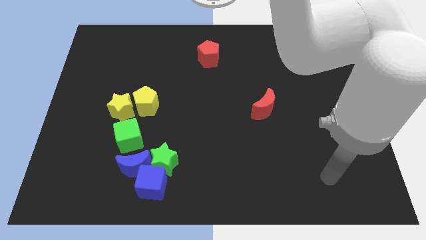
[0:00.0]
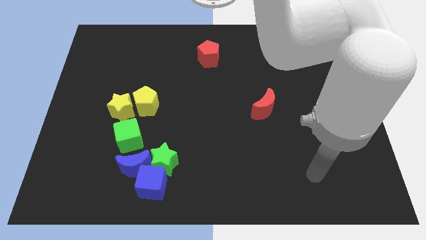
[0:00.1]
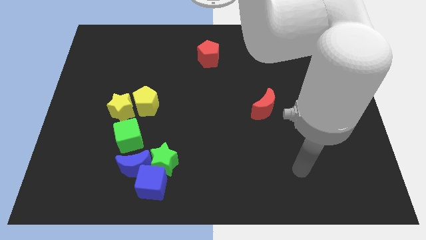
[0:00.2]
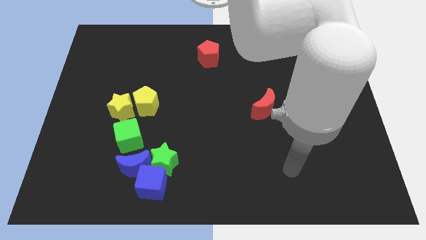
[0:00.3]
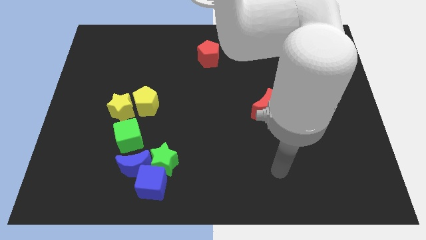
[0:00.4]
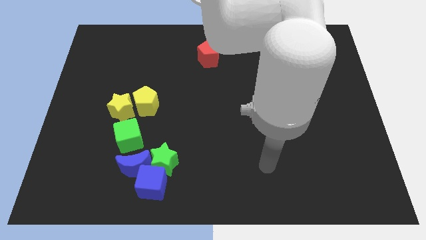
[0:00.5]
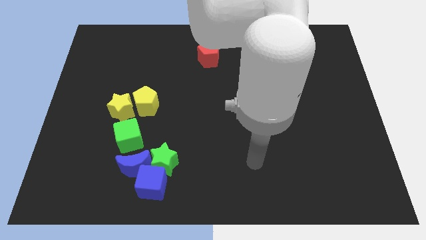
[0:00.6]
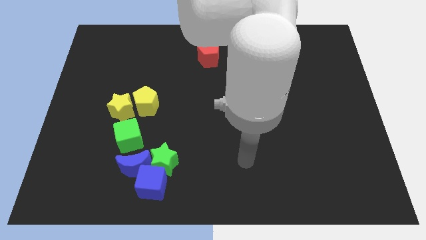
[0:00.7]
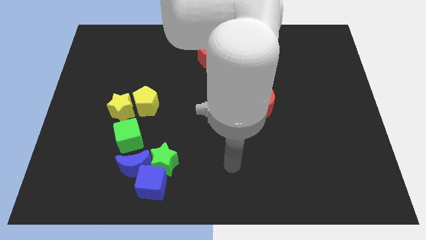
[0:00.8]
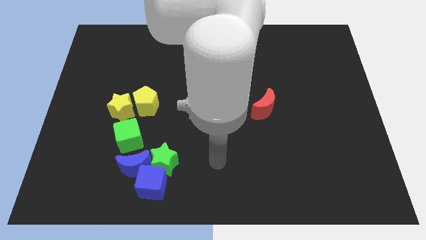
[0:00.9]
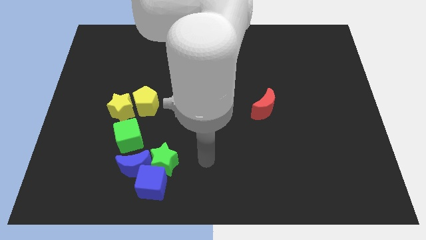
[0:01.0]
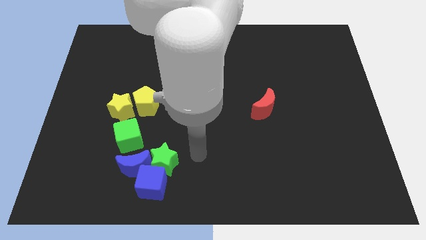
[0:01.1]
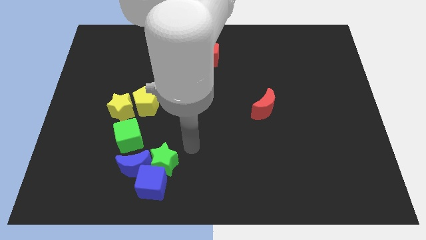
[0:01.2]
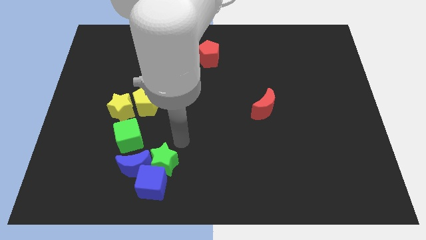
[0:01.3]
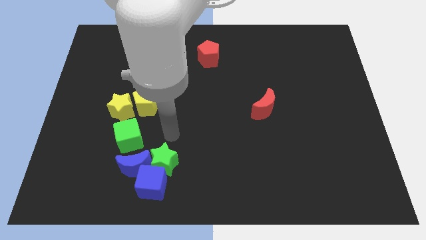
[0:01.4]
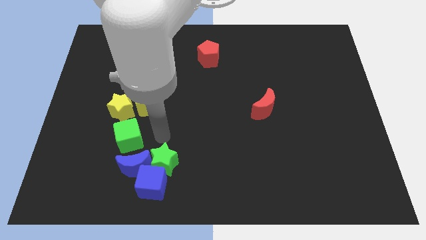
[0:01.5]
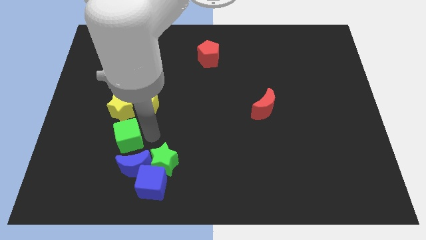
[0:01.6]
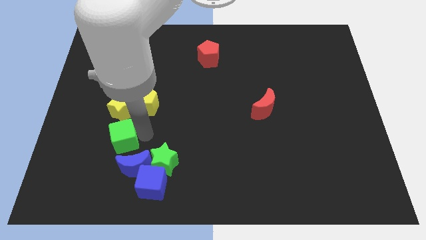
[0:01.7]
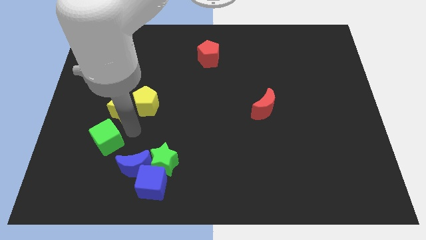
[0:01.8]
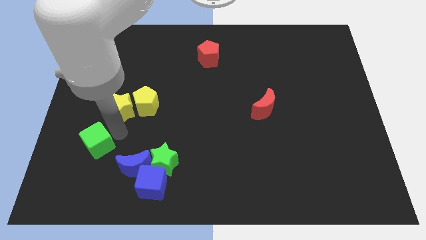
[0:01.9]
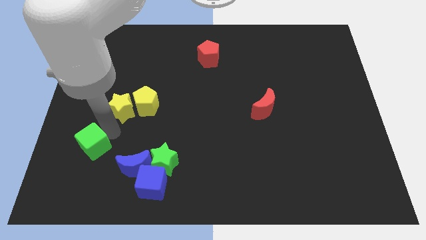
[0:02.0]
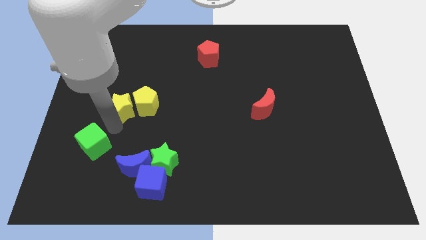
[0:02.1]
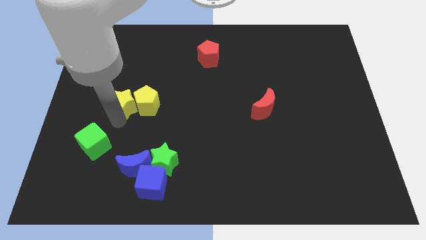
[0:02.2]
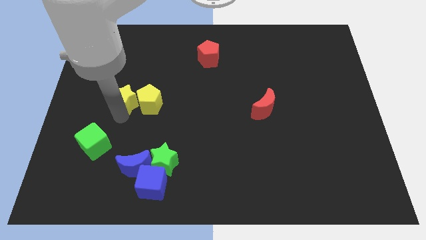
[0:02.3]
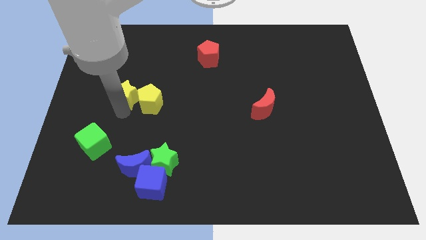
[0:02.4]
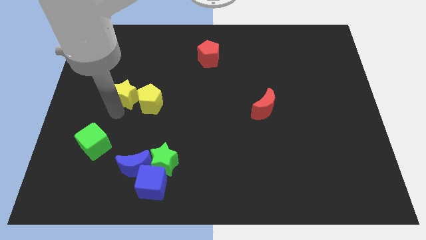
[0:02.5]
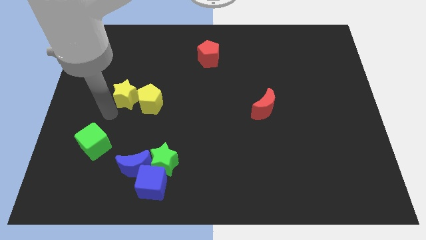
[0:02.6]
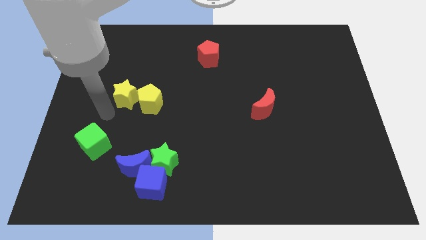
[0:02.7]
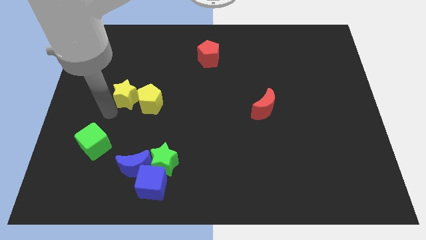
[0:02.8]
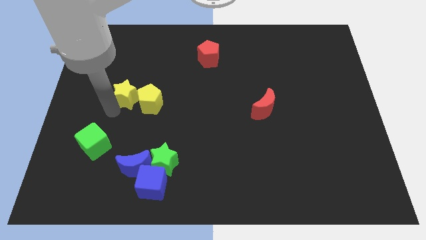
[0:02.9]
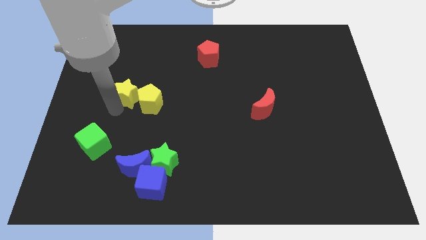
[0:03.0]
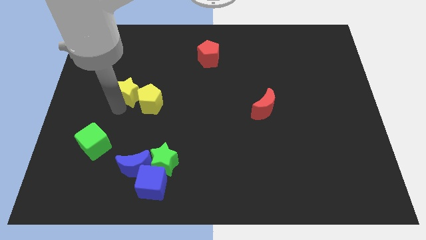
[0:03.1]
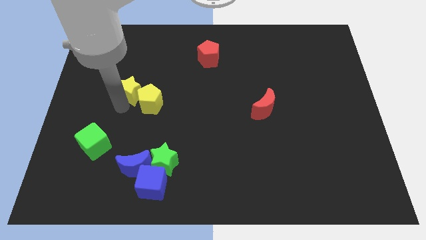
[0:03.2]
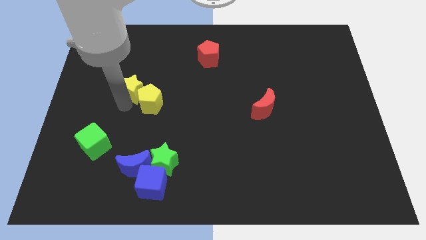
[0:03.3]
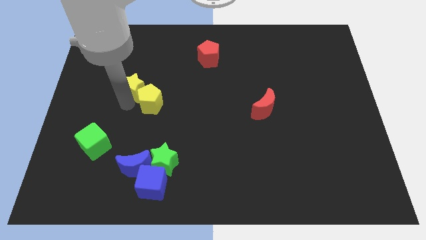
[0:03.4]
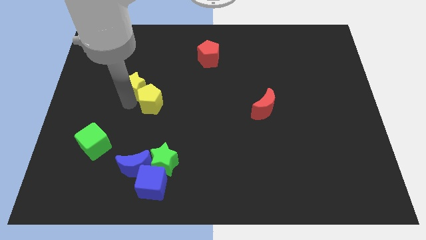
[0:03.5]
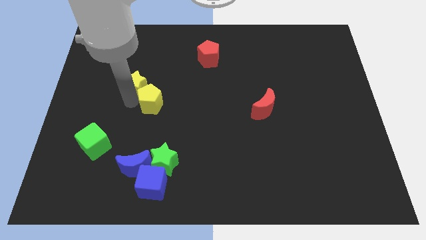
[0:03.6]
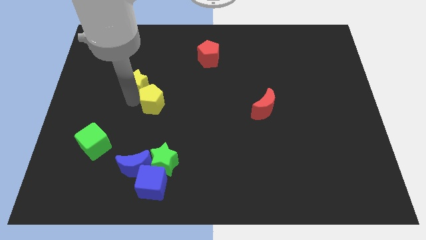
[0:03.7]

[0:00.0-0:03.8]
push the yellow star upwards and to the right diagonally slightly

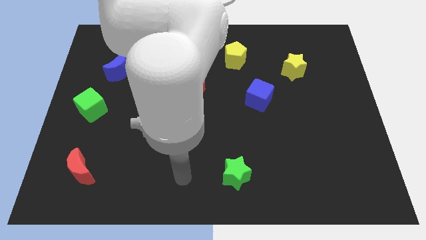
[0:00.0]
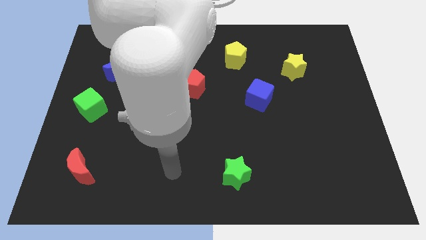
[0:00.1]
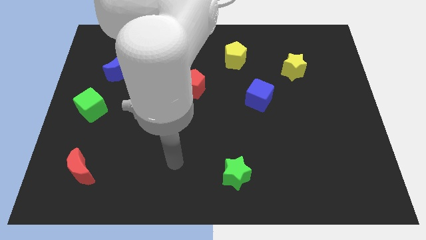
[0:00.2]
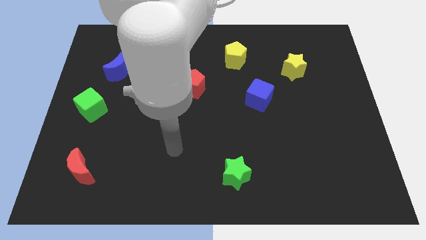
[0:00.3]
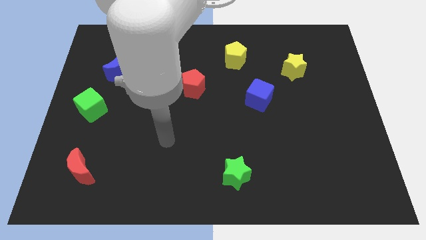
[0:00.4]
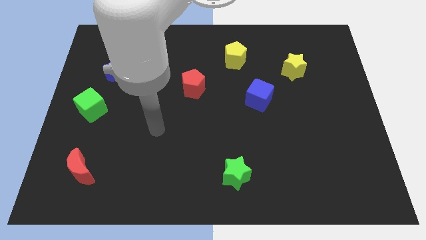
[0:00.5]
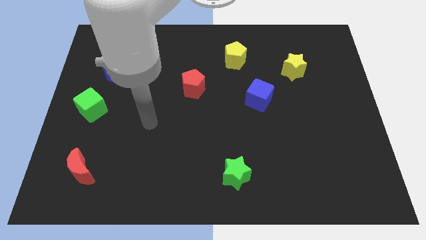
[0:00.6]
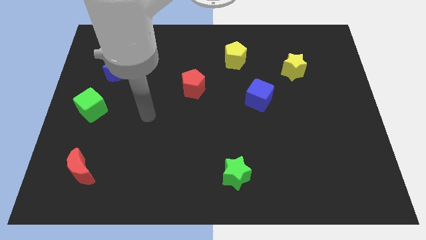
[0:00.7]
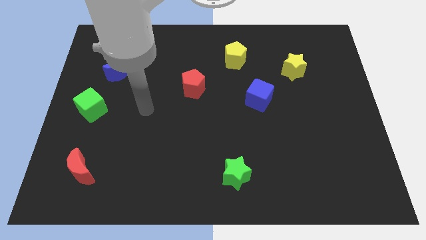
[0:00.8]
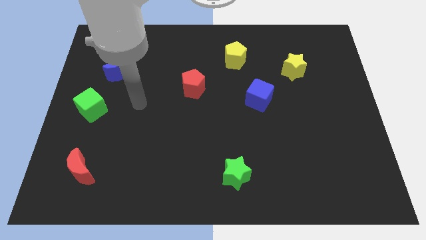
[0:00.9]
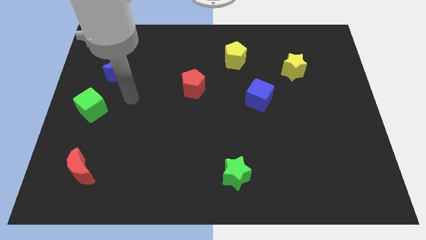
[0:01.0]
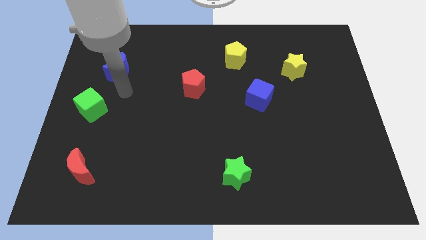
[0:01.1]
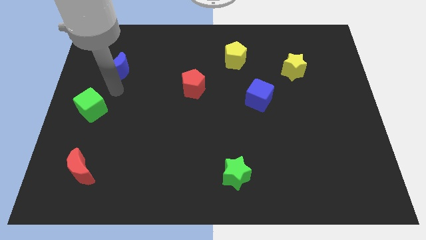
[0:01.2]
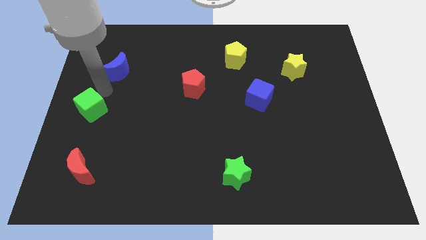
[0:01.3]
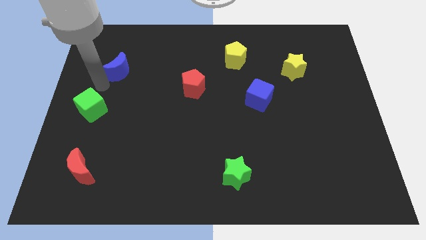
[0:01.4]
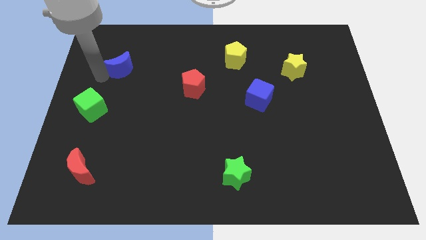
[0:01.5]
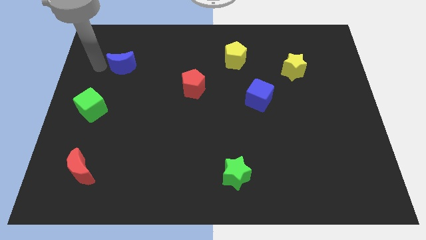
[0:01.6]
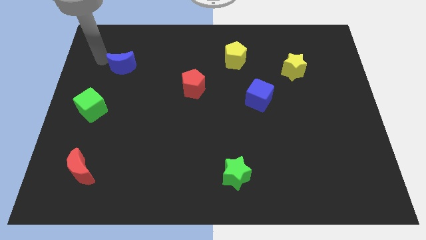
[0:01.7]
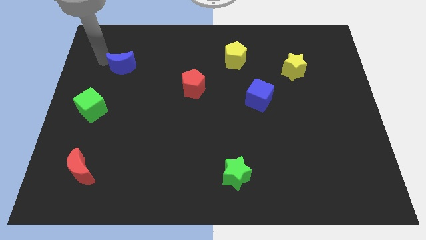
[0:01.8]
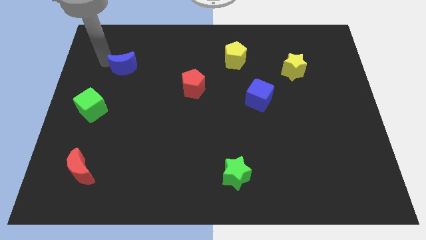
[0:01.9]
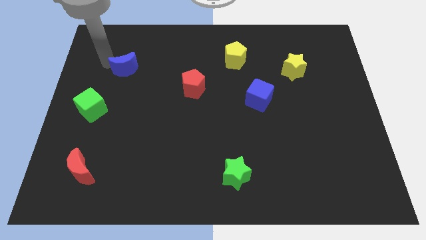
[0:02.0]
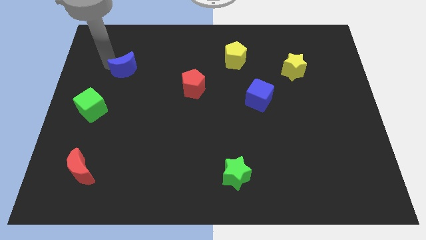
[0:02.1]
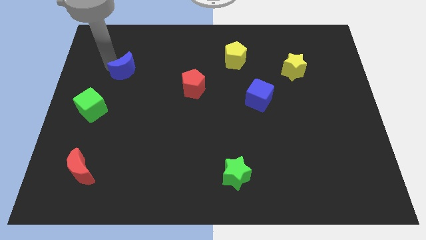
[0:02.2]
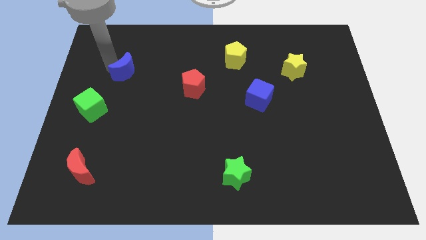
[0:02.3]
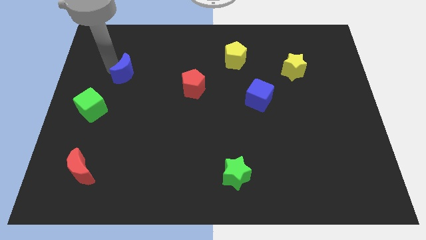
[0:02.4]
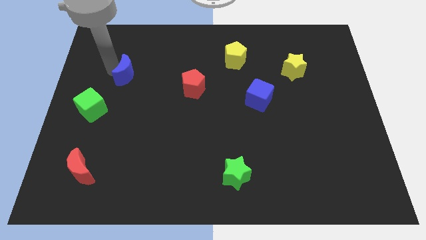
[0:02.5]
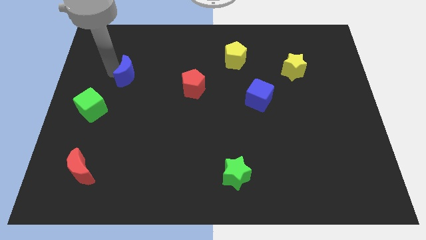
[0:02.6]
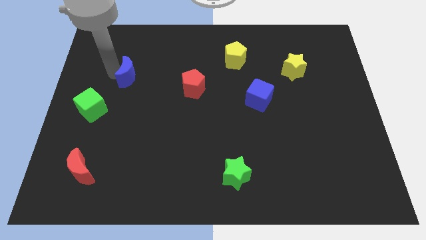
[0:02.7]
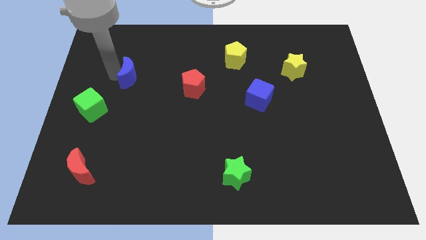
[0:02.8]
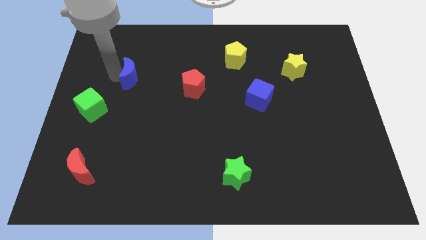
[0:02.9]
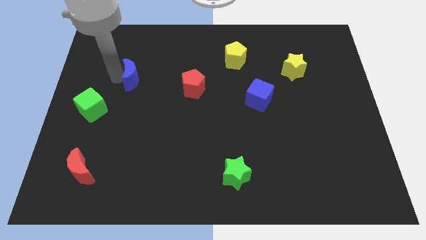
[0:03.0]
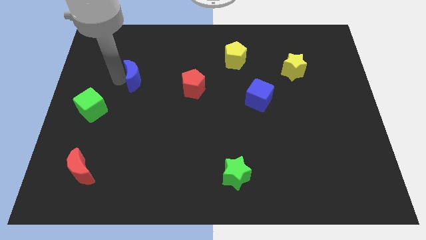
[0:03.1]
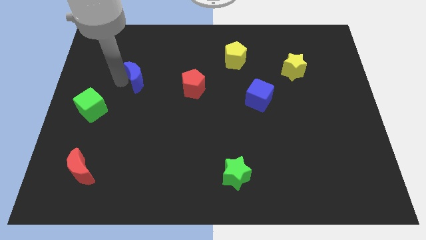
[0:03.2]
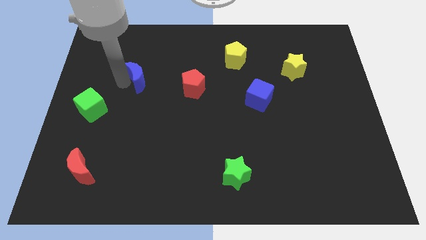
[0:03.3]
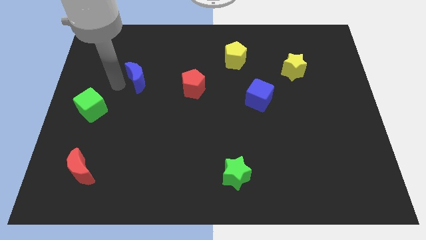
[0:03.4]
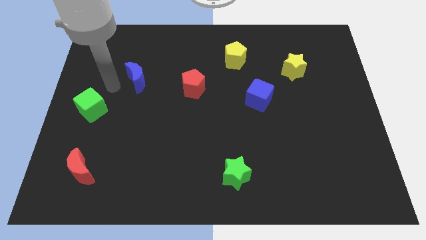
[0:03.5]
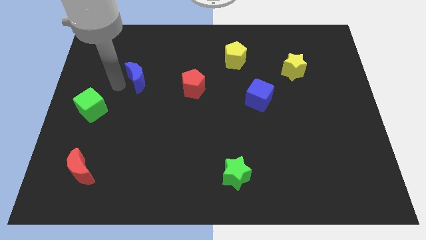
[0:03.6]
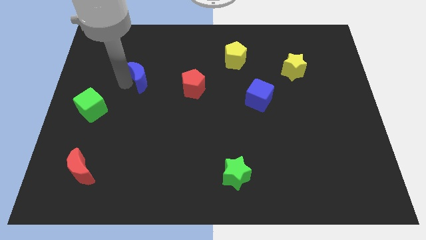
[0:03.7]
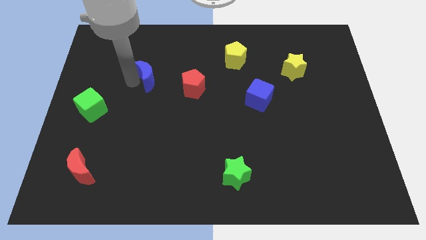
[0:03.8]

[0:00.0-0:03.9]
push the blue moon right a little
